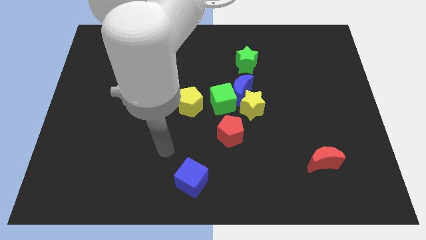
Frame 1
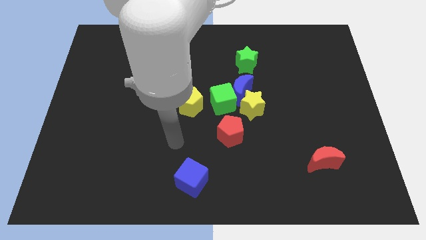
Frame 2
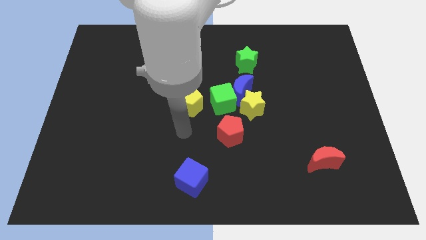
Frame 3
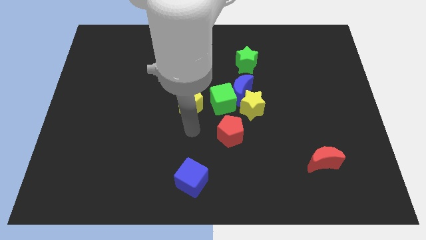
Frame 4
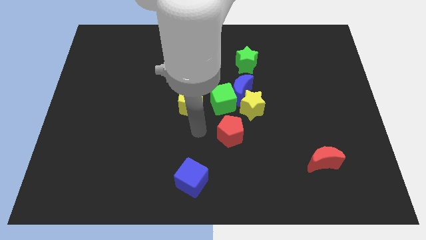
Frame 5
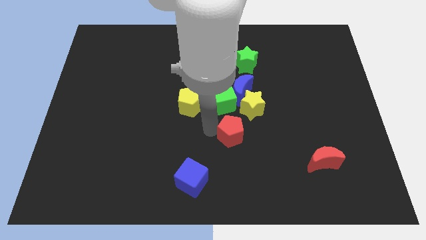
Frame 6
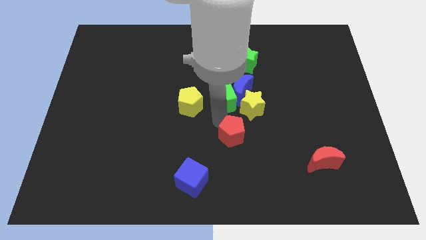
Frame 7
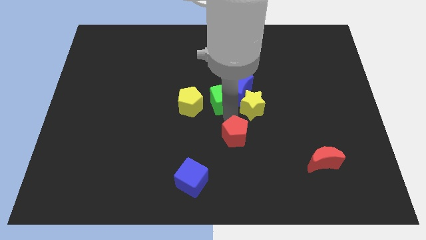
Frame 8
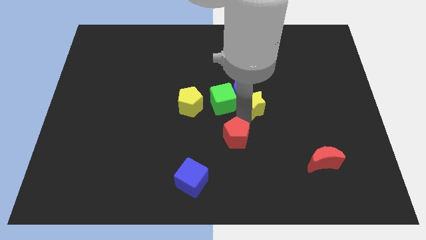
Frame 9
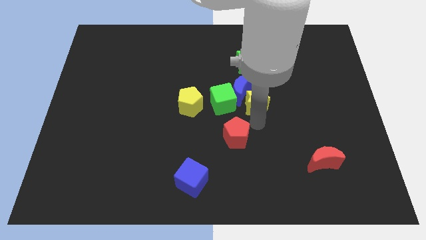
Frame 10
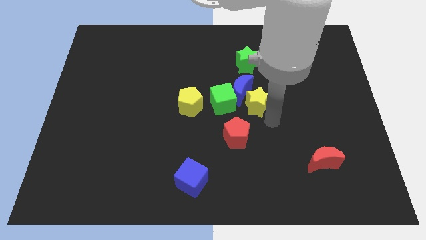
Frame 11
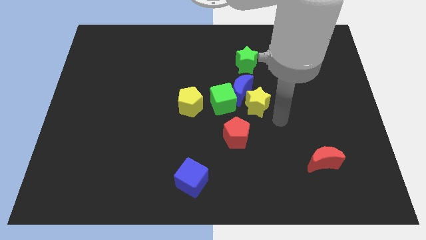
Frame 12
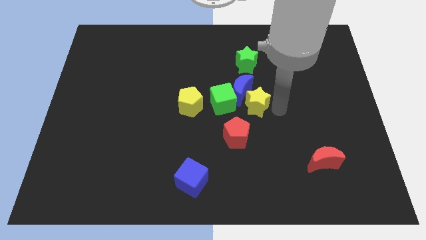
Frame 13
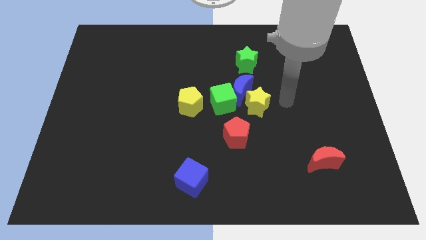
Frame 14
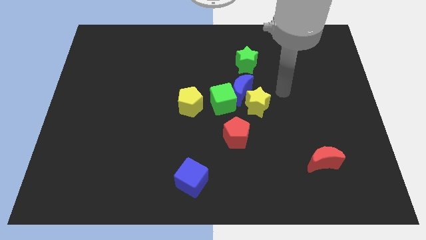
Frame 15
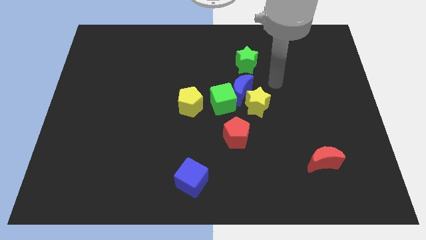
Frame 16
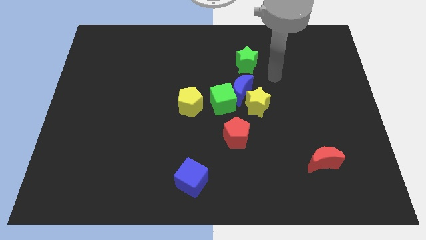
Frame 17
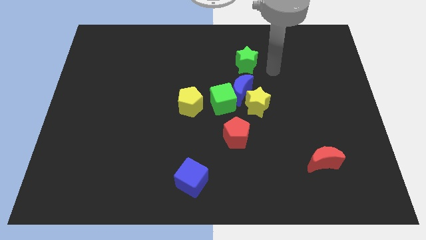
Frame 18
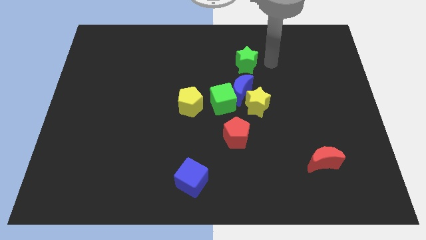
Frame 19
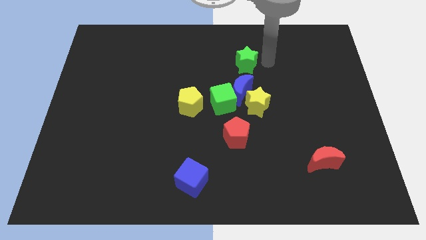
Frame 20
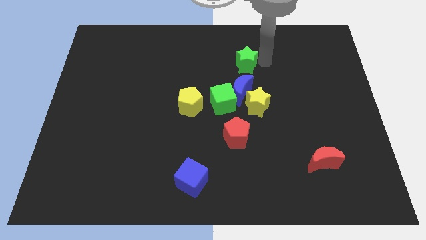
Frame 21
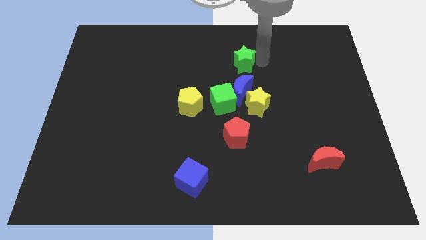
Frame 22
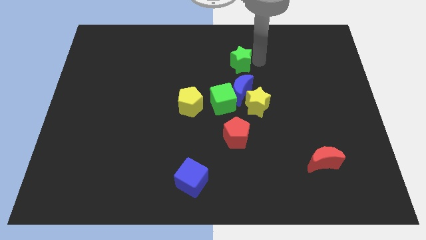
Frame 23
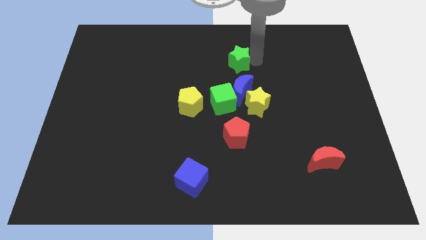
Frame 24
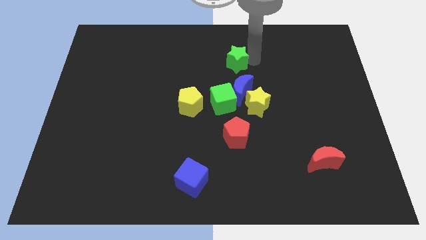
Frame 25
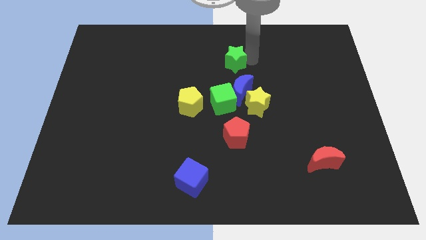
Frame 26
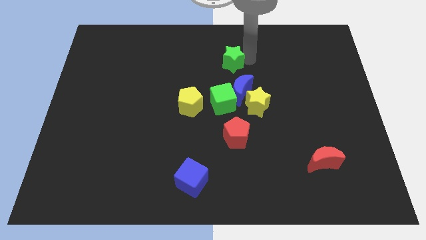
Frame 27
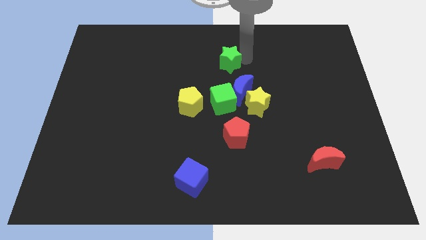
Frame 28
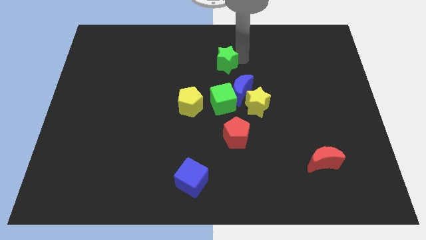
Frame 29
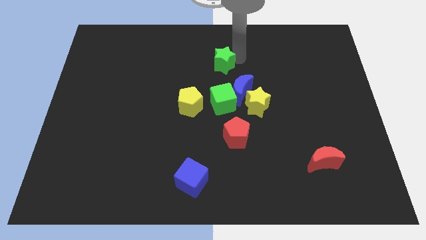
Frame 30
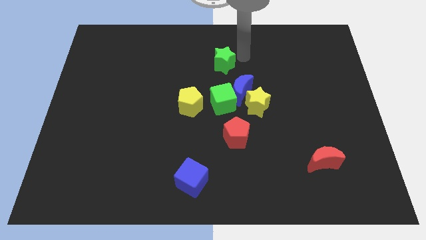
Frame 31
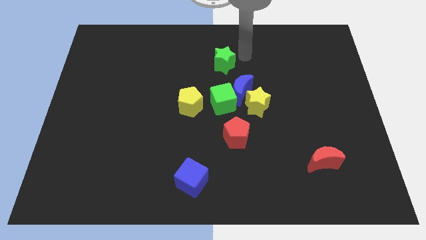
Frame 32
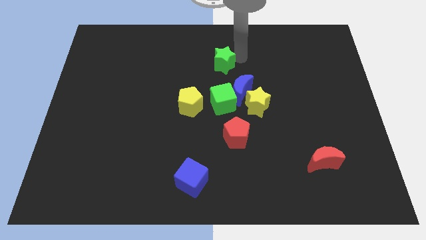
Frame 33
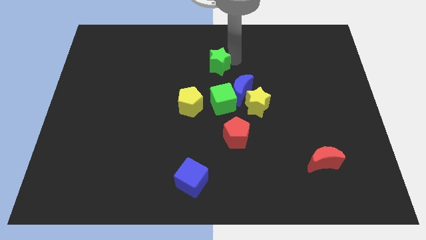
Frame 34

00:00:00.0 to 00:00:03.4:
slide the green star a little bit left

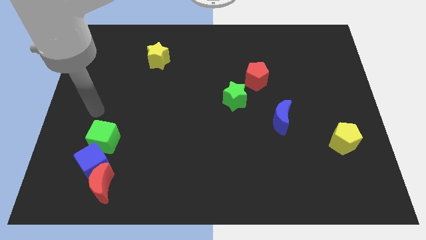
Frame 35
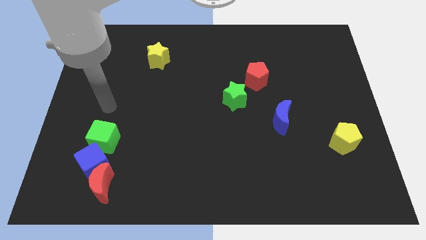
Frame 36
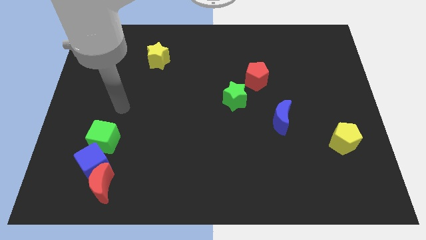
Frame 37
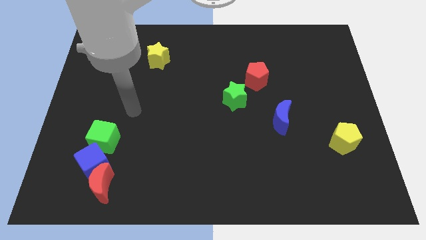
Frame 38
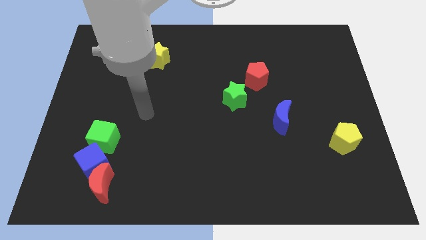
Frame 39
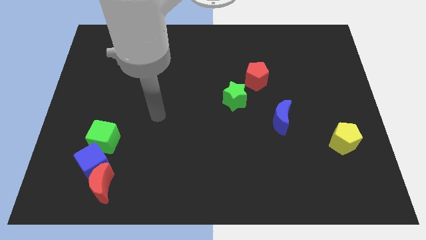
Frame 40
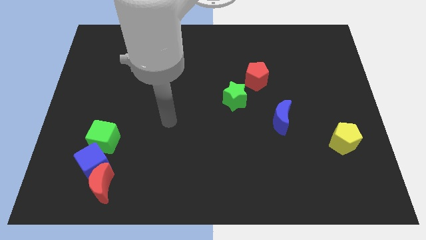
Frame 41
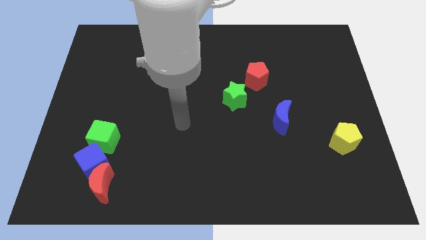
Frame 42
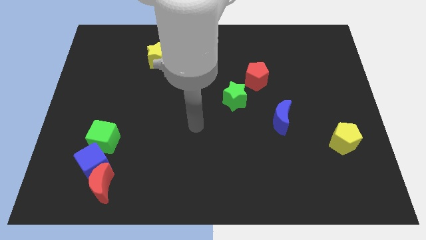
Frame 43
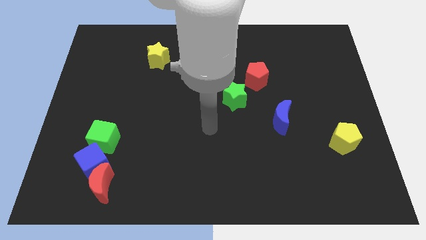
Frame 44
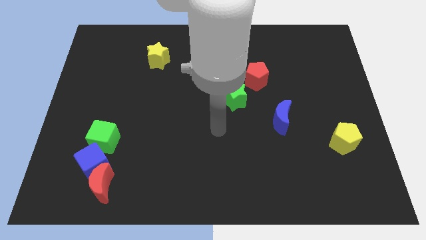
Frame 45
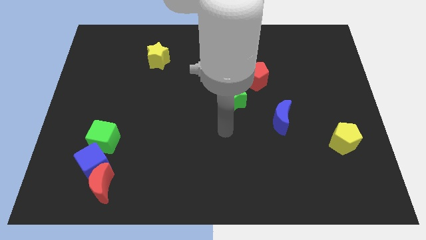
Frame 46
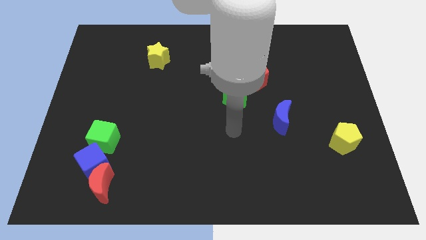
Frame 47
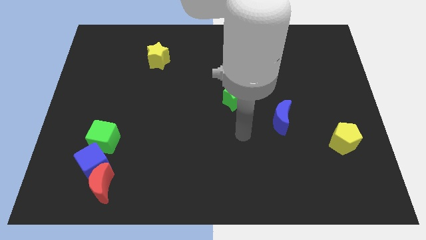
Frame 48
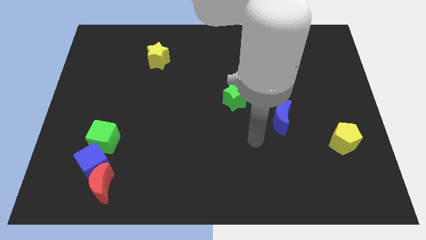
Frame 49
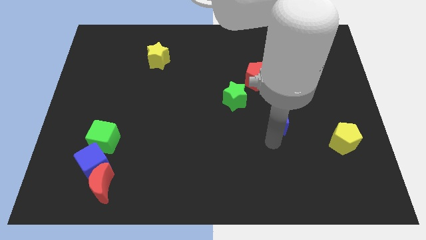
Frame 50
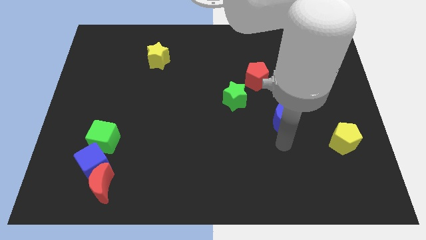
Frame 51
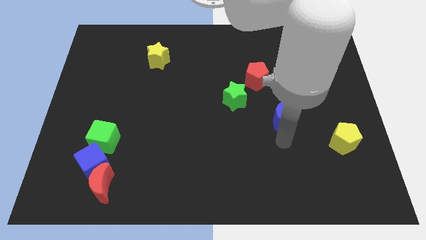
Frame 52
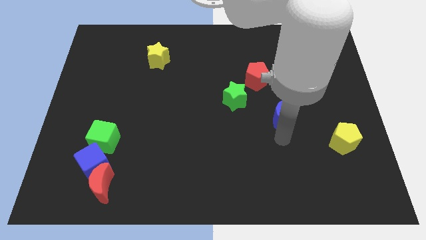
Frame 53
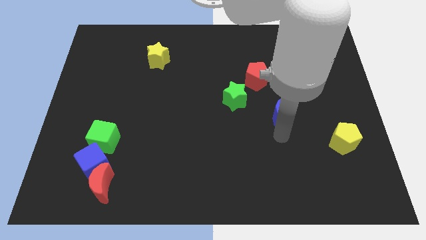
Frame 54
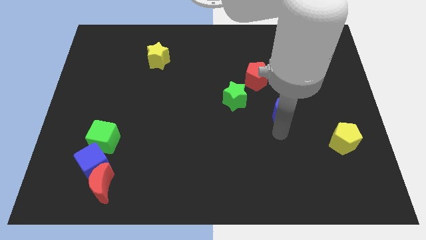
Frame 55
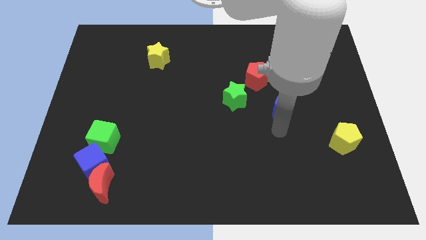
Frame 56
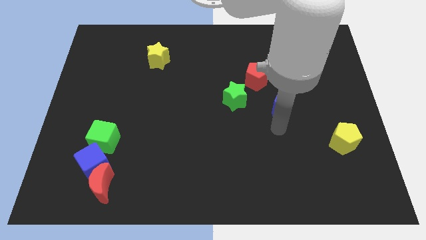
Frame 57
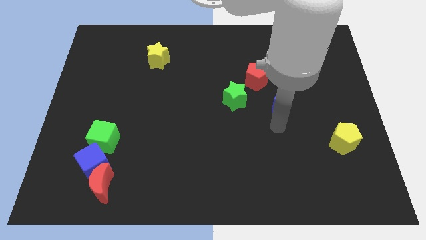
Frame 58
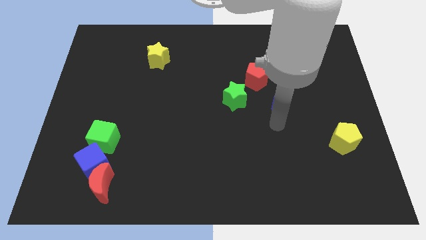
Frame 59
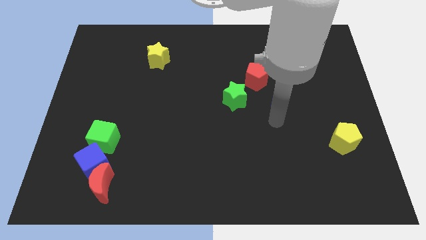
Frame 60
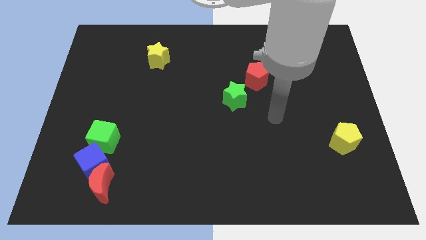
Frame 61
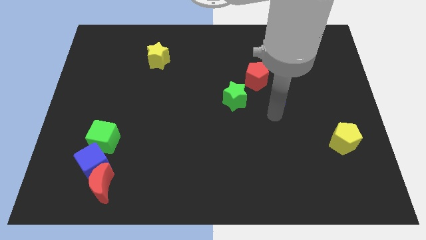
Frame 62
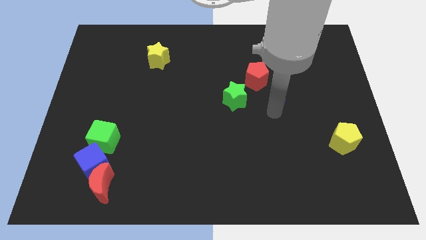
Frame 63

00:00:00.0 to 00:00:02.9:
slide the blue moon slightly upwards

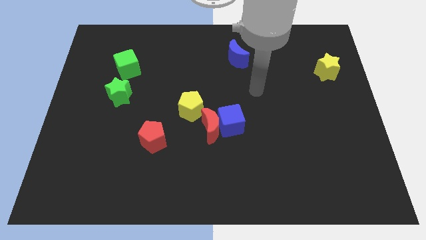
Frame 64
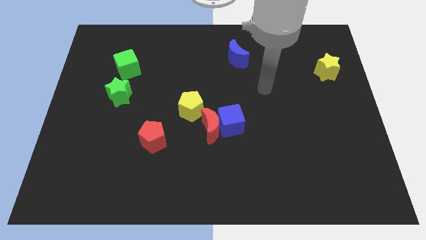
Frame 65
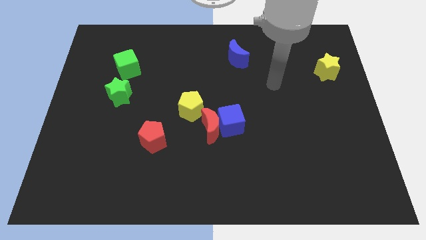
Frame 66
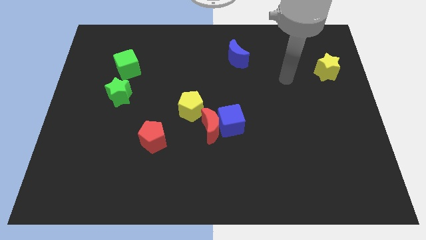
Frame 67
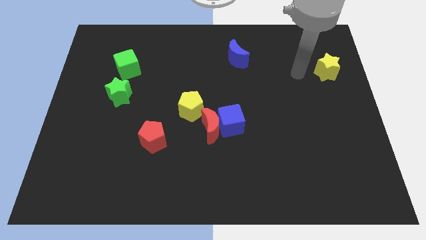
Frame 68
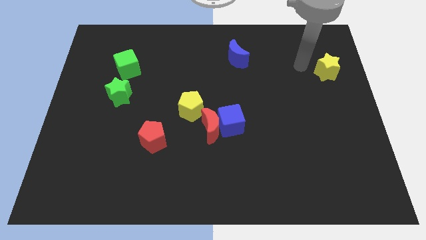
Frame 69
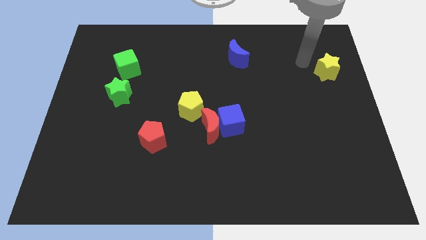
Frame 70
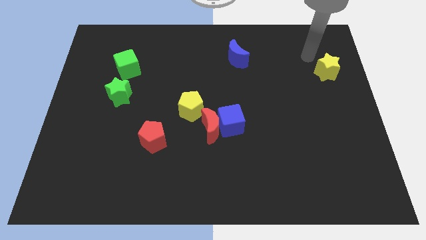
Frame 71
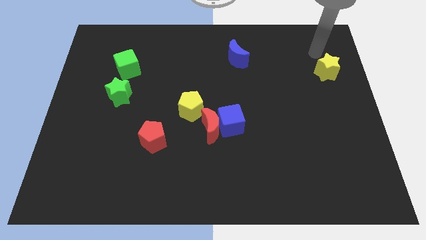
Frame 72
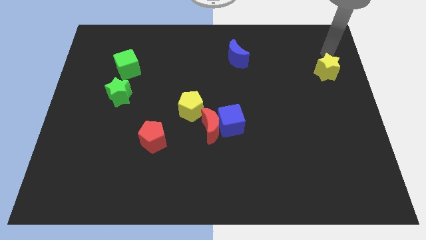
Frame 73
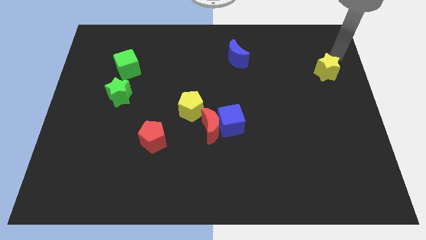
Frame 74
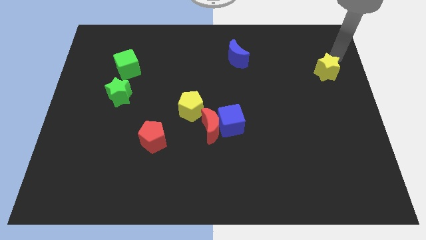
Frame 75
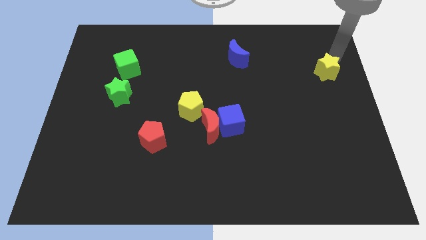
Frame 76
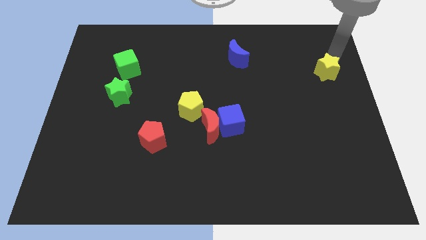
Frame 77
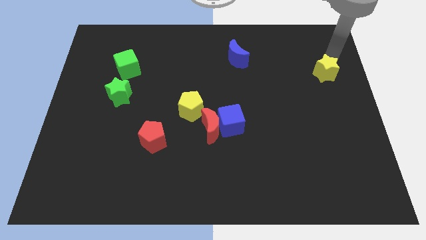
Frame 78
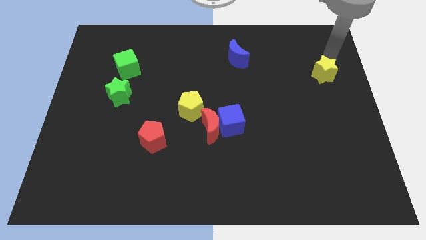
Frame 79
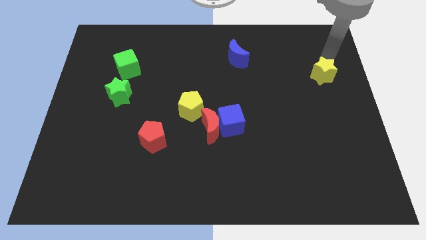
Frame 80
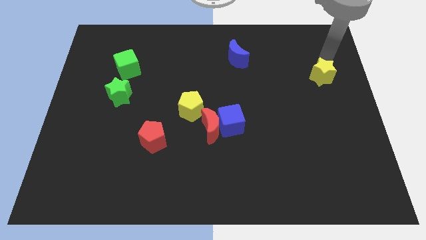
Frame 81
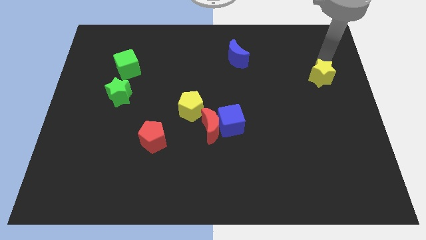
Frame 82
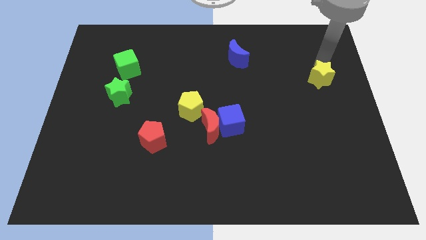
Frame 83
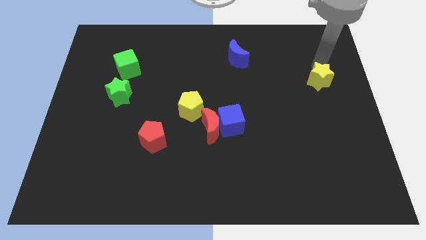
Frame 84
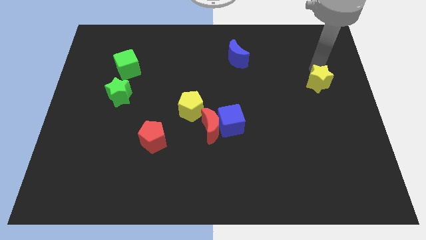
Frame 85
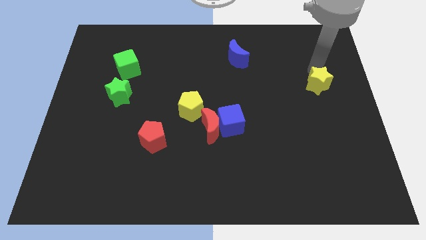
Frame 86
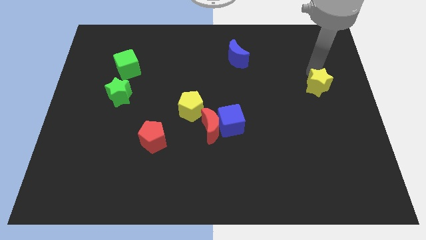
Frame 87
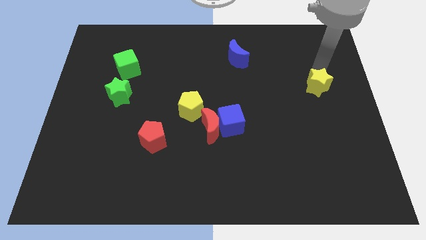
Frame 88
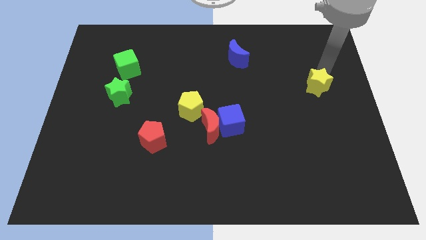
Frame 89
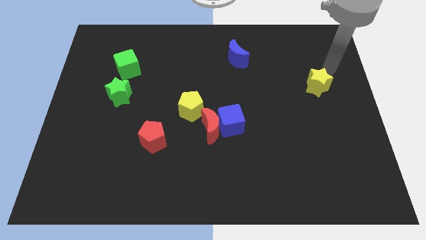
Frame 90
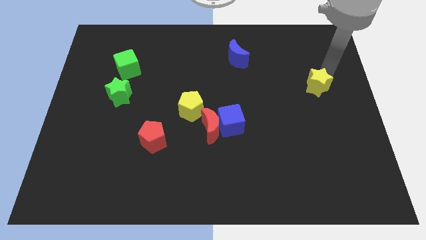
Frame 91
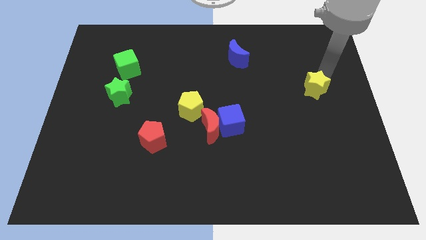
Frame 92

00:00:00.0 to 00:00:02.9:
slide the yellow star diagonally downwards and left somewhat
